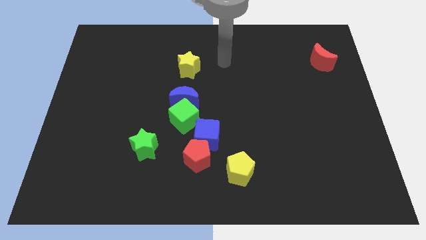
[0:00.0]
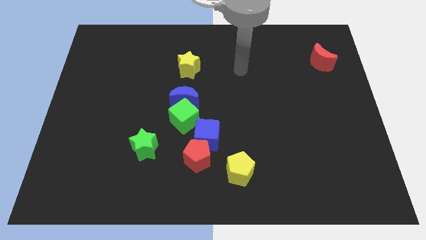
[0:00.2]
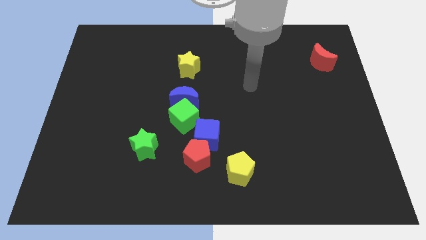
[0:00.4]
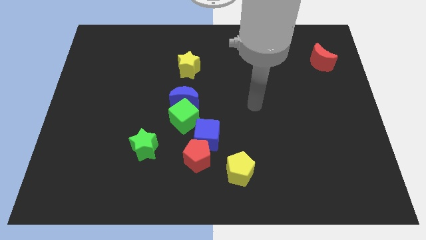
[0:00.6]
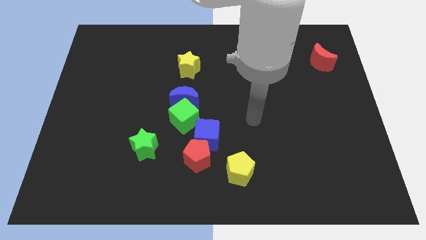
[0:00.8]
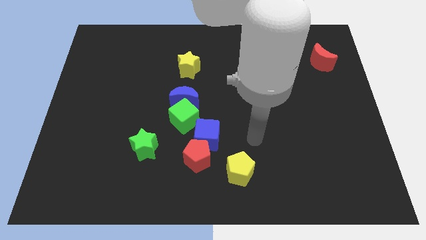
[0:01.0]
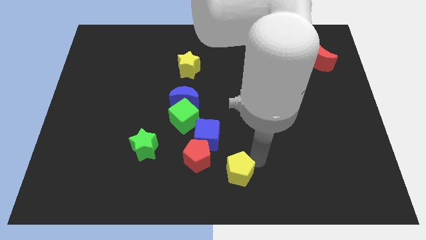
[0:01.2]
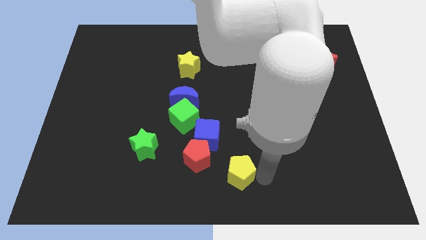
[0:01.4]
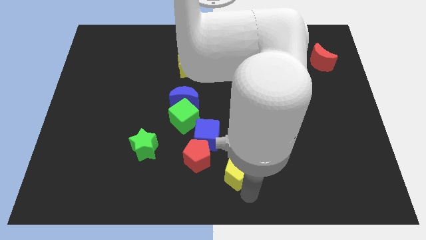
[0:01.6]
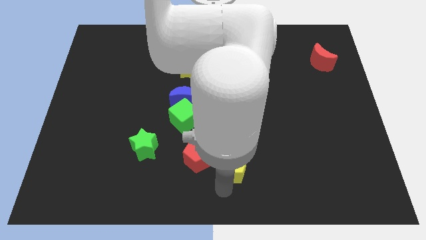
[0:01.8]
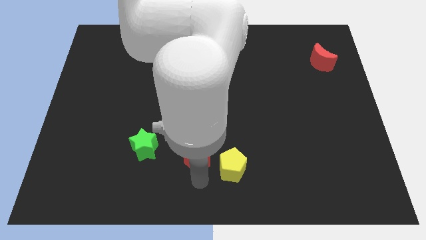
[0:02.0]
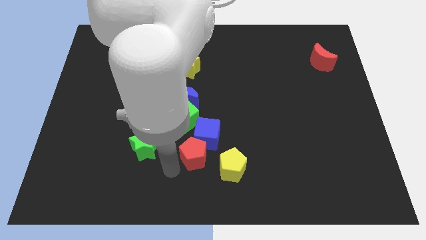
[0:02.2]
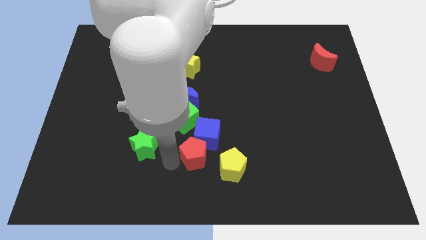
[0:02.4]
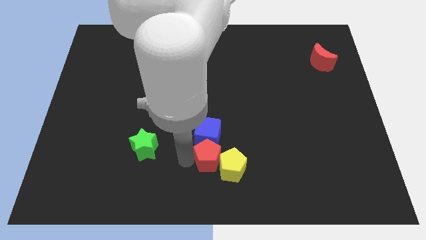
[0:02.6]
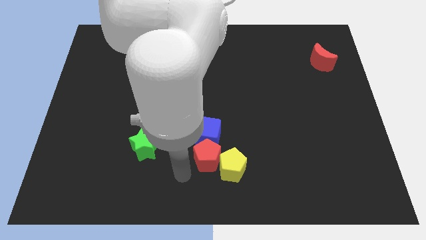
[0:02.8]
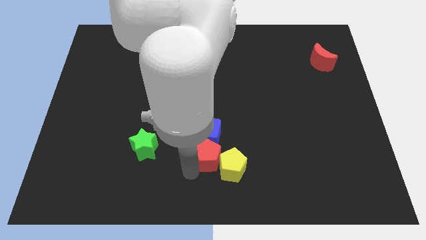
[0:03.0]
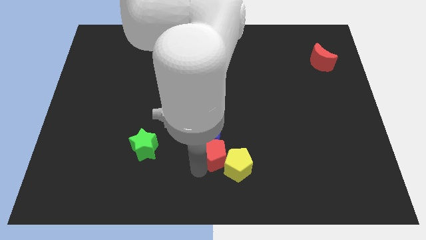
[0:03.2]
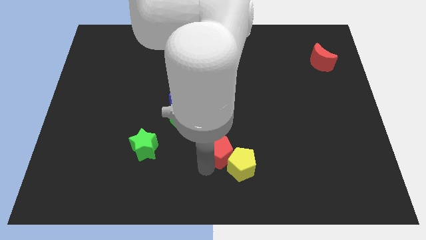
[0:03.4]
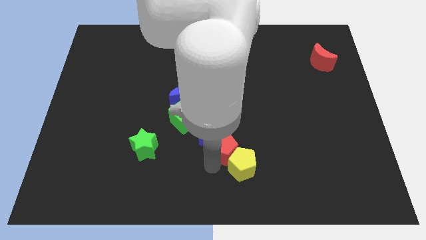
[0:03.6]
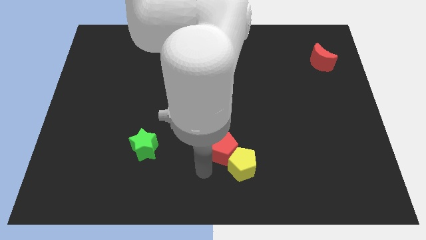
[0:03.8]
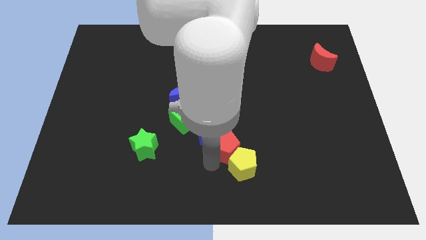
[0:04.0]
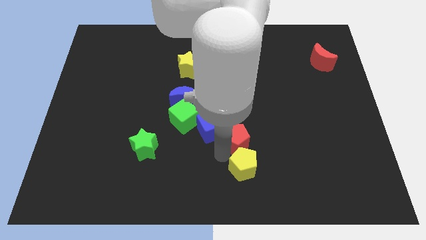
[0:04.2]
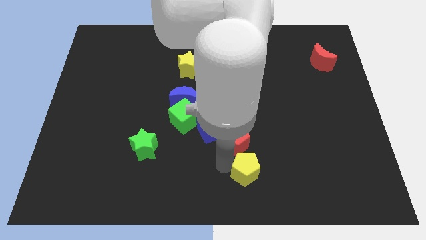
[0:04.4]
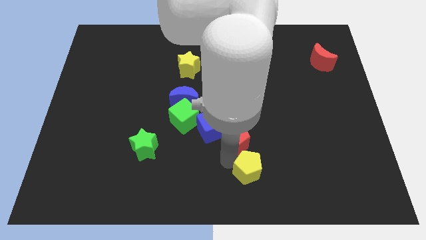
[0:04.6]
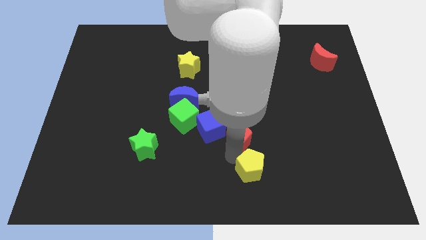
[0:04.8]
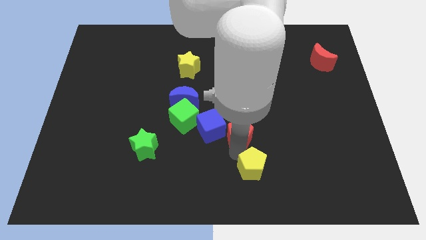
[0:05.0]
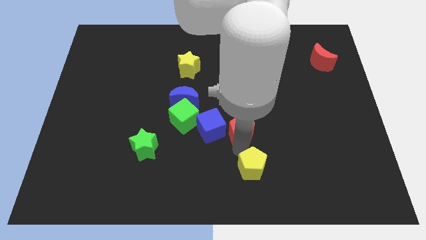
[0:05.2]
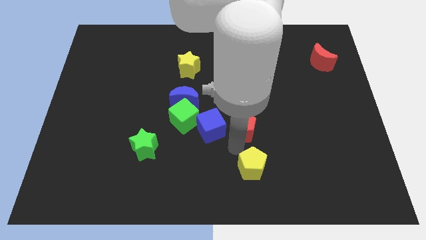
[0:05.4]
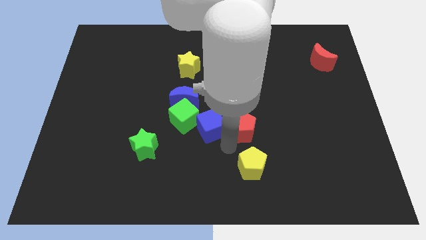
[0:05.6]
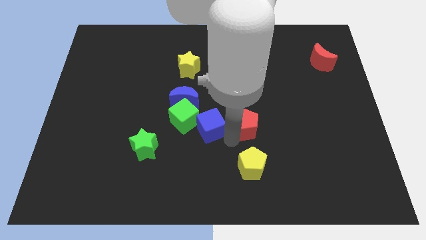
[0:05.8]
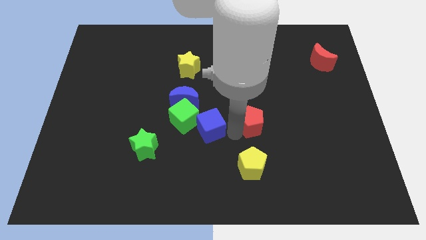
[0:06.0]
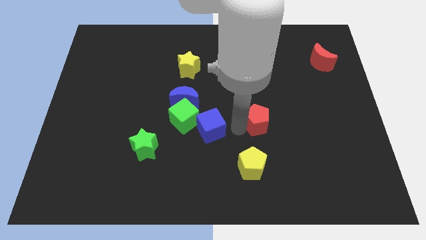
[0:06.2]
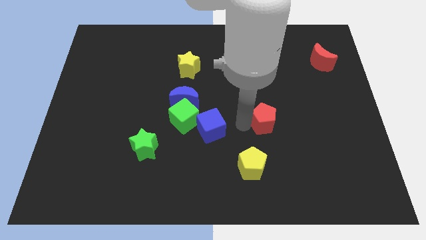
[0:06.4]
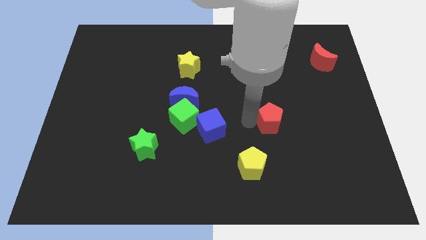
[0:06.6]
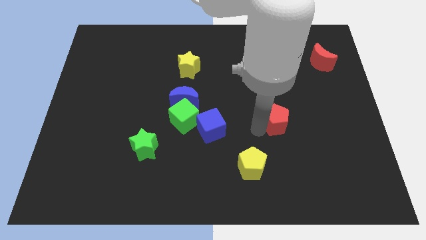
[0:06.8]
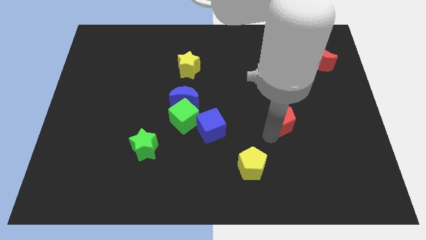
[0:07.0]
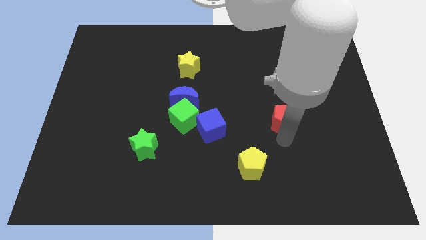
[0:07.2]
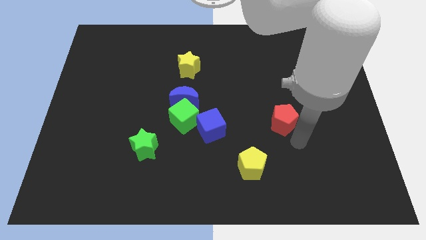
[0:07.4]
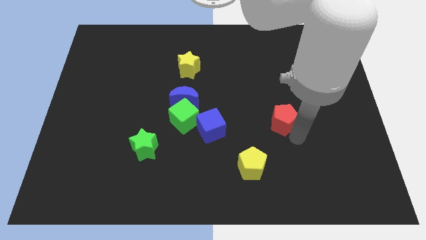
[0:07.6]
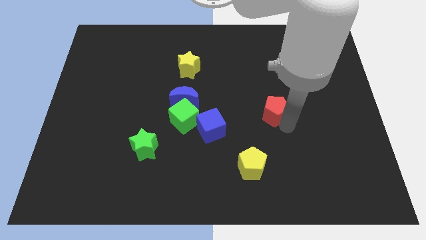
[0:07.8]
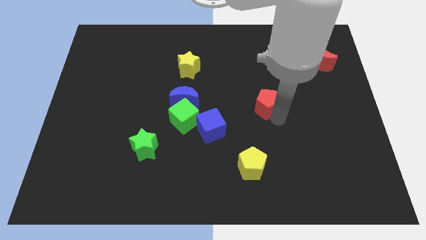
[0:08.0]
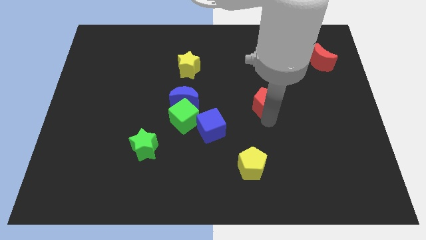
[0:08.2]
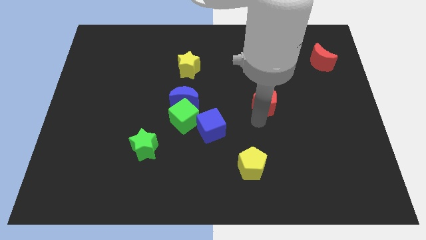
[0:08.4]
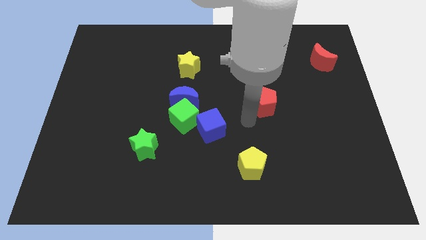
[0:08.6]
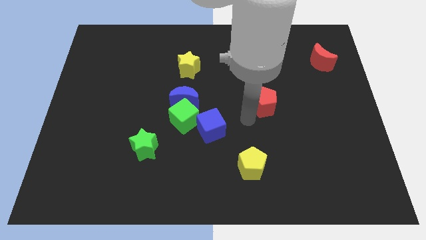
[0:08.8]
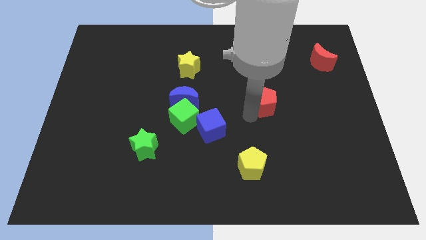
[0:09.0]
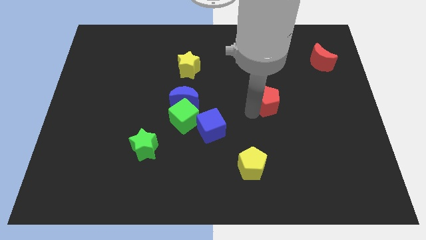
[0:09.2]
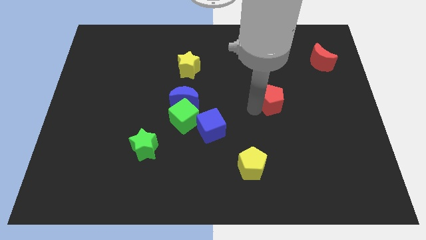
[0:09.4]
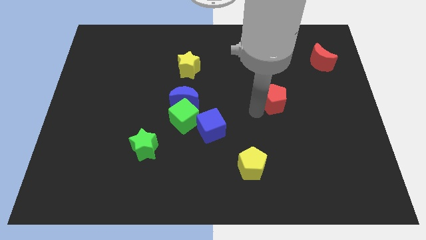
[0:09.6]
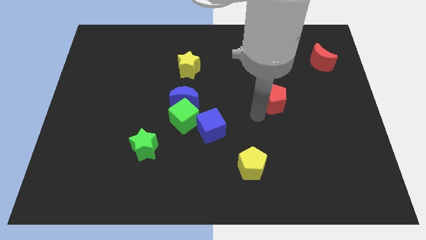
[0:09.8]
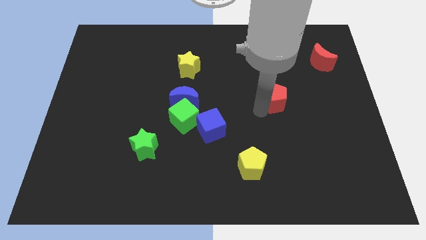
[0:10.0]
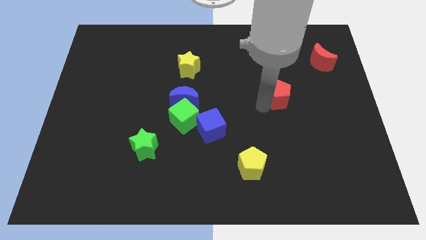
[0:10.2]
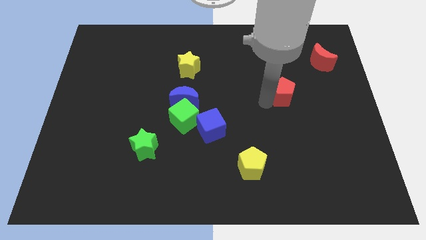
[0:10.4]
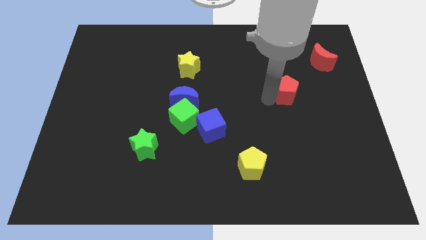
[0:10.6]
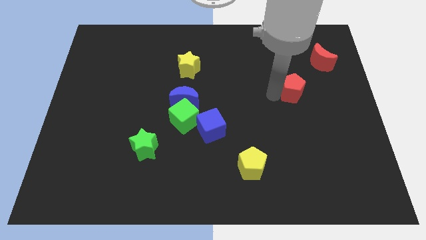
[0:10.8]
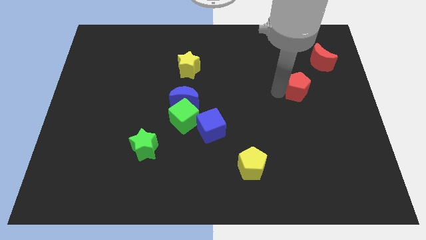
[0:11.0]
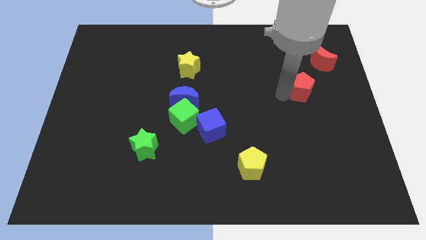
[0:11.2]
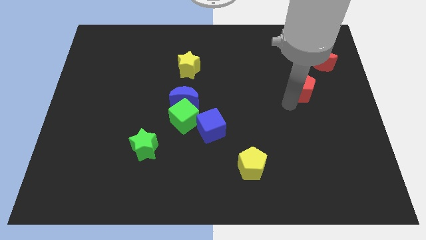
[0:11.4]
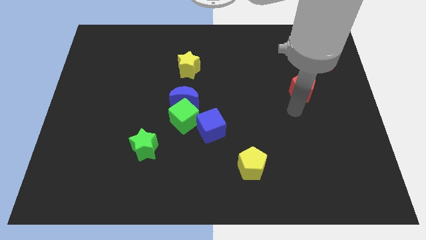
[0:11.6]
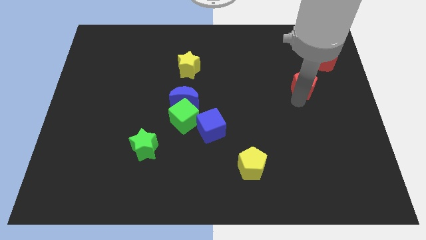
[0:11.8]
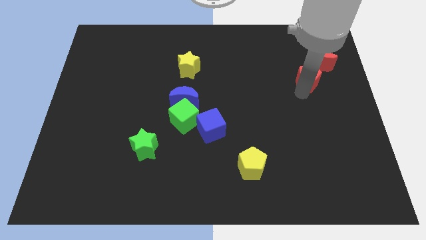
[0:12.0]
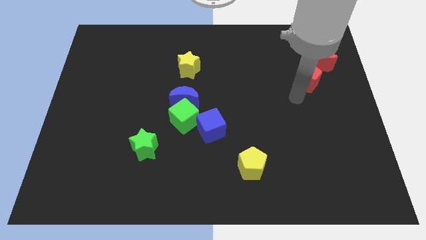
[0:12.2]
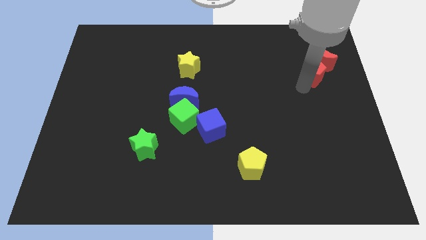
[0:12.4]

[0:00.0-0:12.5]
move the red pentagon close to the red moon

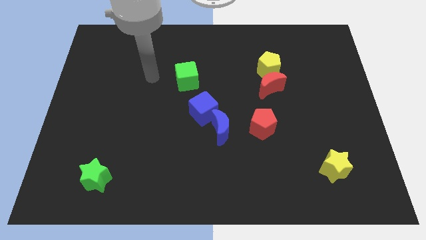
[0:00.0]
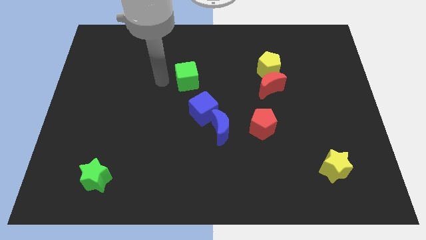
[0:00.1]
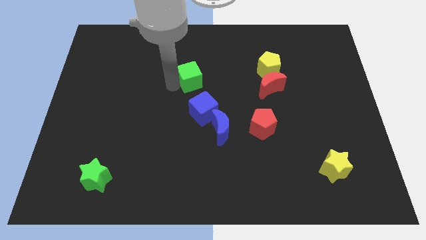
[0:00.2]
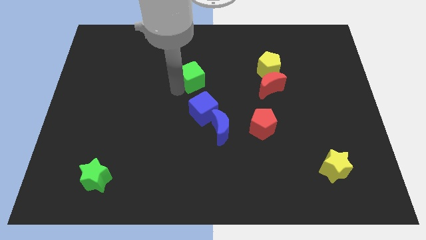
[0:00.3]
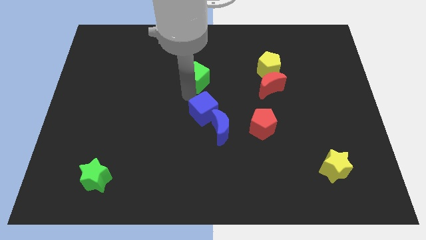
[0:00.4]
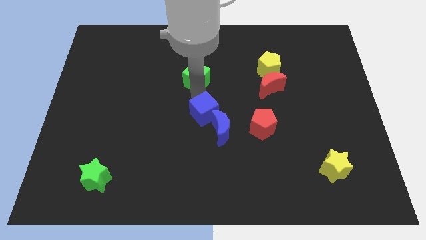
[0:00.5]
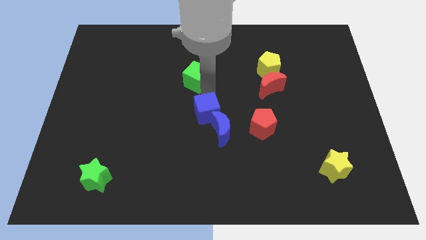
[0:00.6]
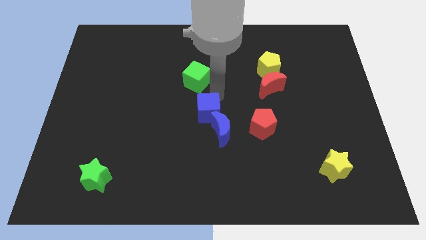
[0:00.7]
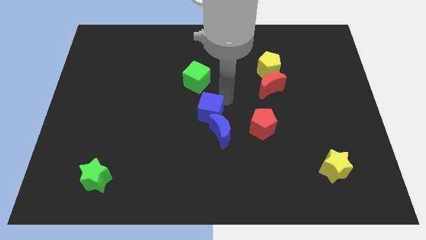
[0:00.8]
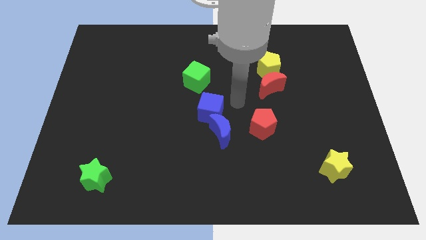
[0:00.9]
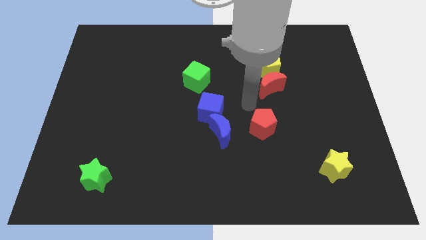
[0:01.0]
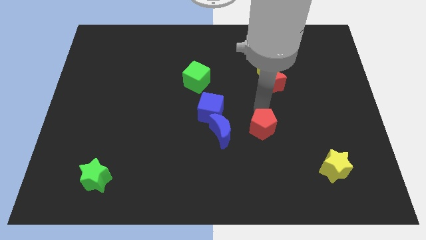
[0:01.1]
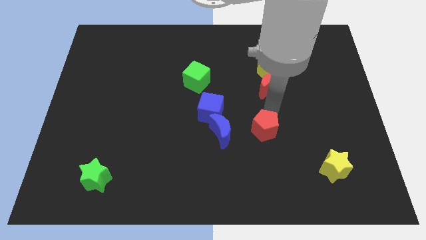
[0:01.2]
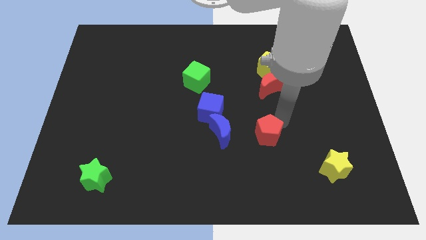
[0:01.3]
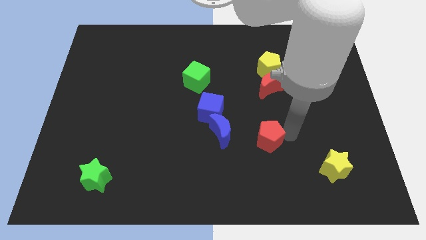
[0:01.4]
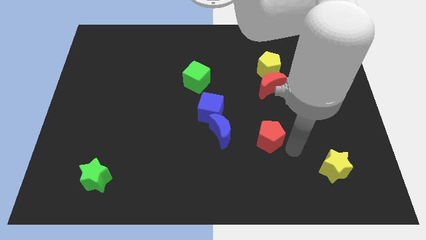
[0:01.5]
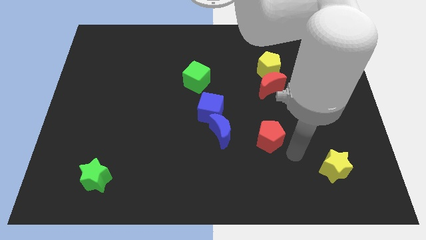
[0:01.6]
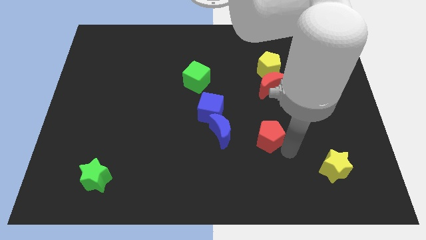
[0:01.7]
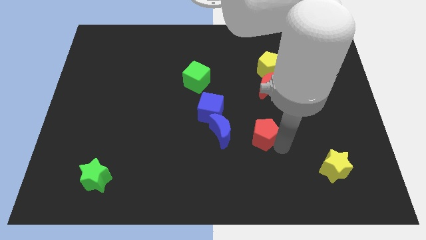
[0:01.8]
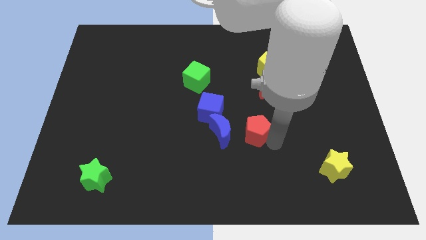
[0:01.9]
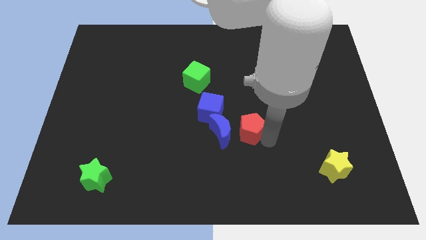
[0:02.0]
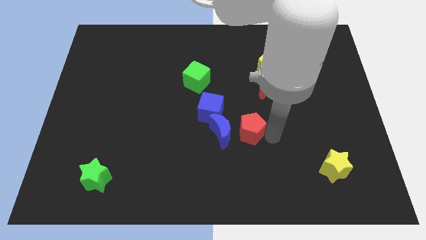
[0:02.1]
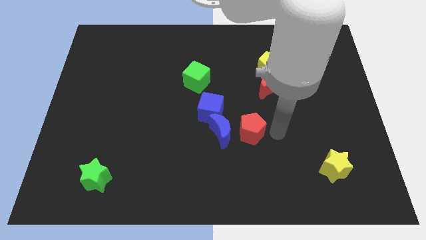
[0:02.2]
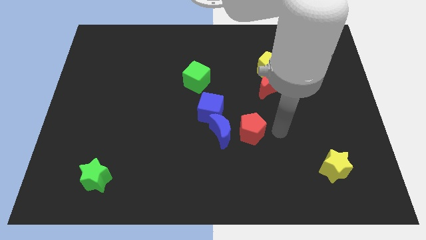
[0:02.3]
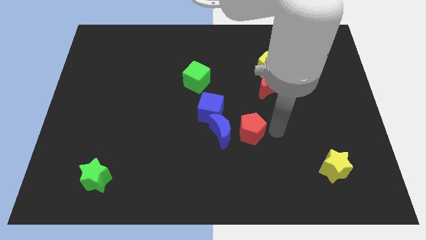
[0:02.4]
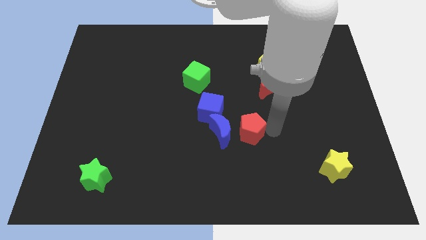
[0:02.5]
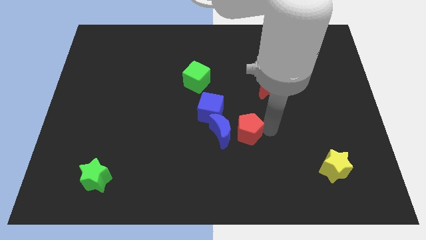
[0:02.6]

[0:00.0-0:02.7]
push the red pentagon towards the blue moon
